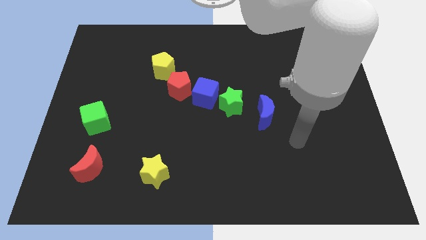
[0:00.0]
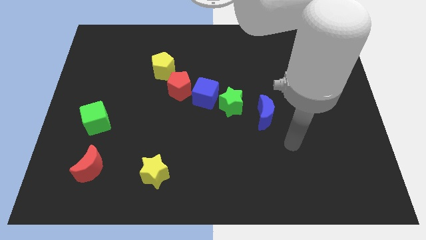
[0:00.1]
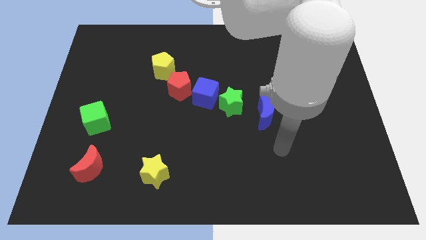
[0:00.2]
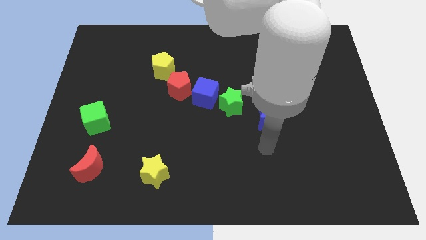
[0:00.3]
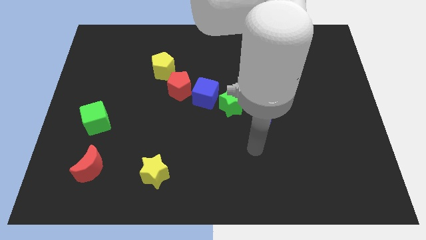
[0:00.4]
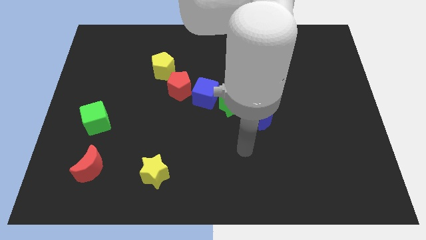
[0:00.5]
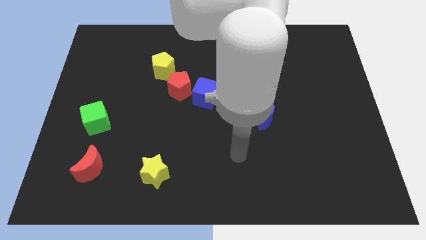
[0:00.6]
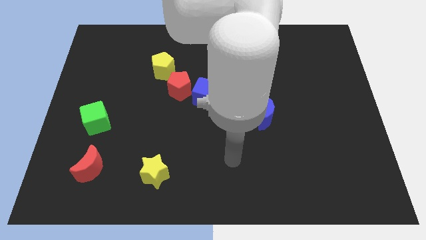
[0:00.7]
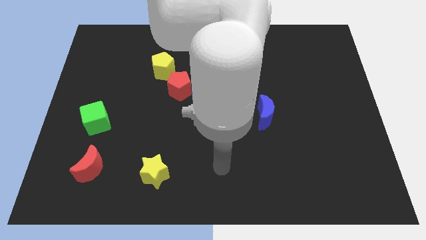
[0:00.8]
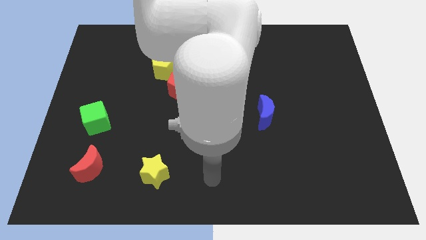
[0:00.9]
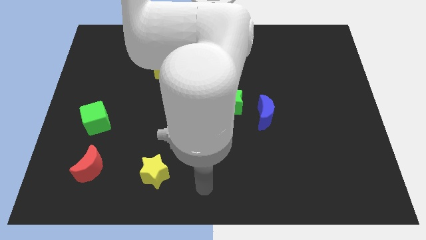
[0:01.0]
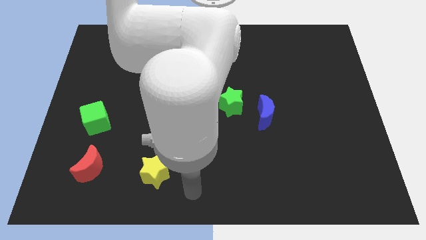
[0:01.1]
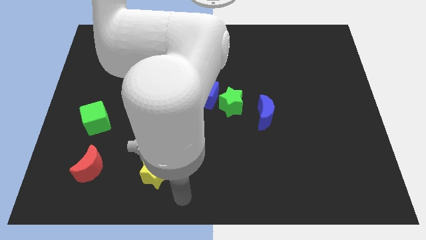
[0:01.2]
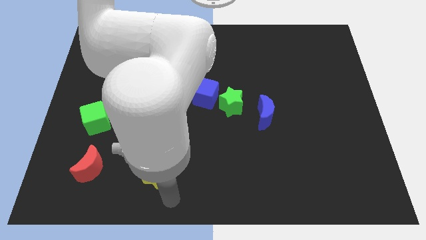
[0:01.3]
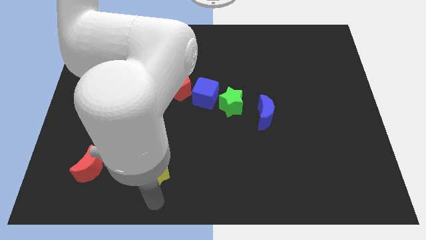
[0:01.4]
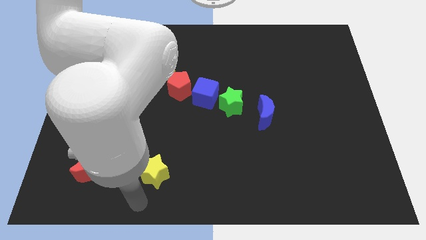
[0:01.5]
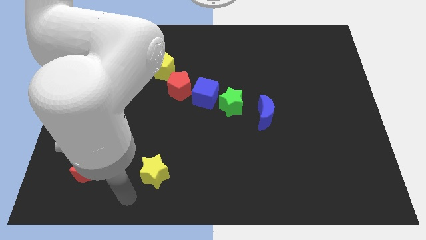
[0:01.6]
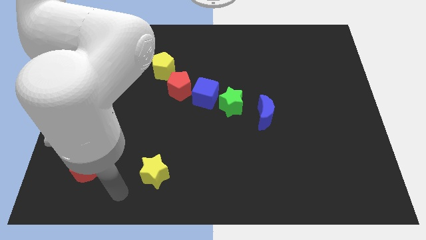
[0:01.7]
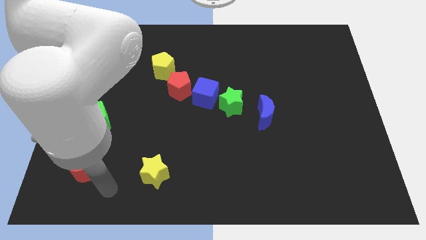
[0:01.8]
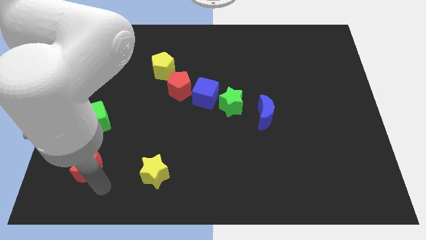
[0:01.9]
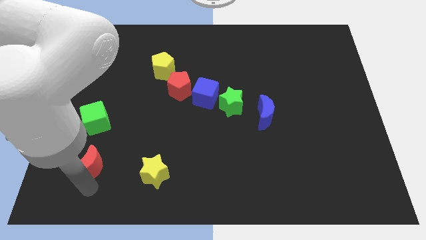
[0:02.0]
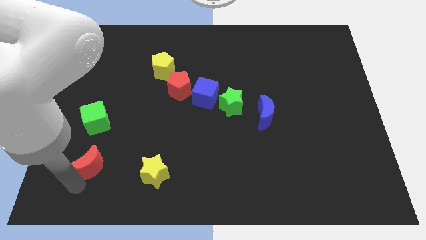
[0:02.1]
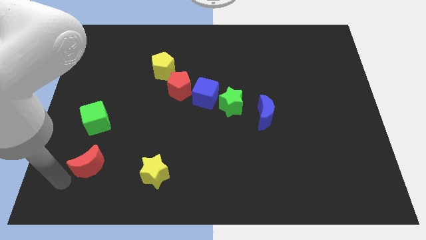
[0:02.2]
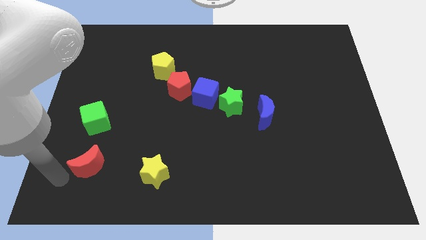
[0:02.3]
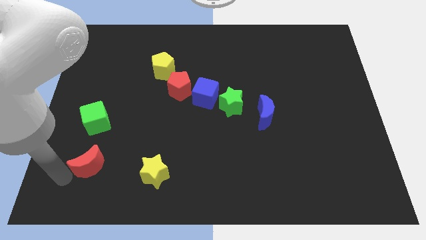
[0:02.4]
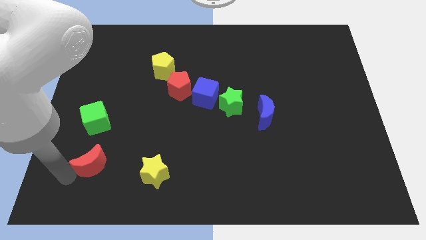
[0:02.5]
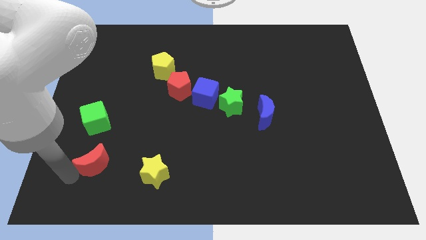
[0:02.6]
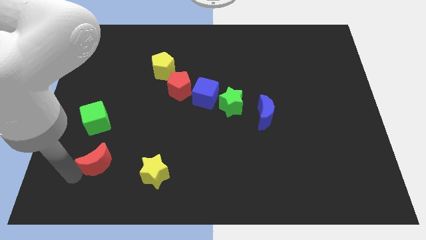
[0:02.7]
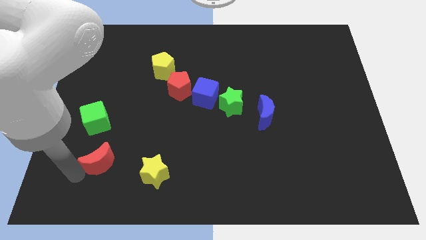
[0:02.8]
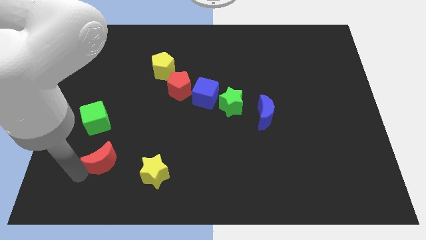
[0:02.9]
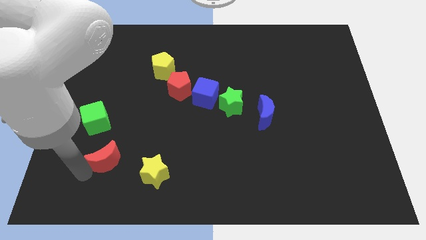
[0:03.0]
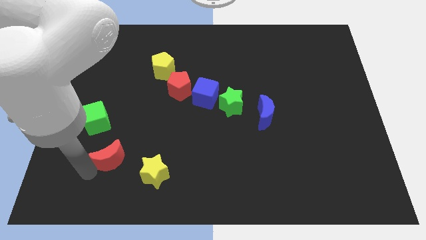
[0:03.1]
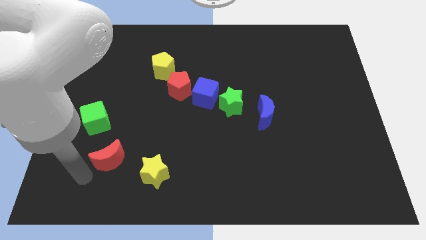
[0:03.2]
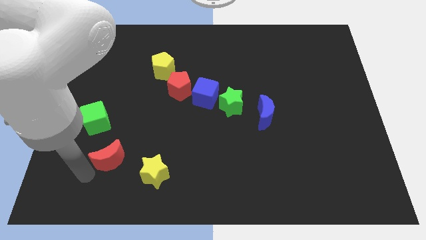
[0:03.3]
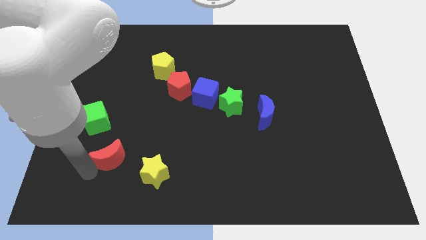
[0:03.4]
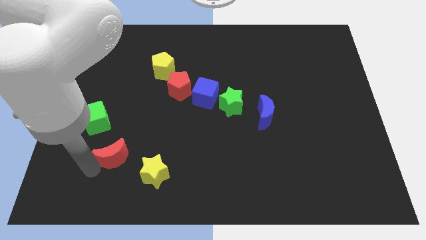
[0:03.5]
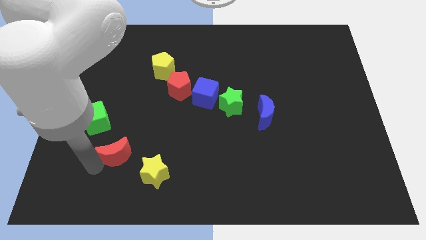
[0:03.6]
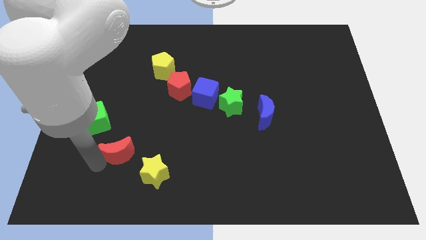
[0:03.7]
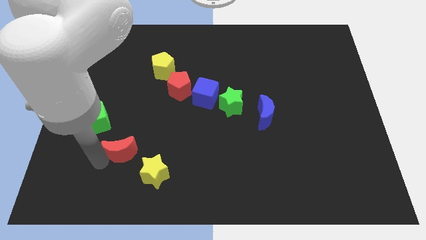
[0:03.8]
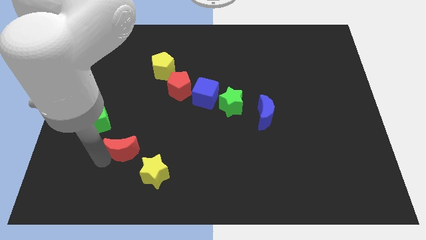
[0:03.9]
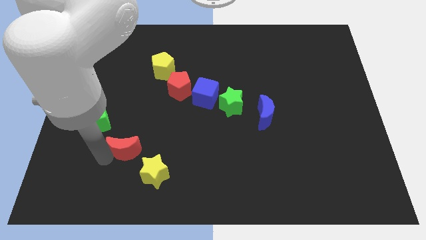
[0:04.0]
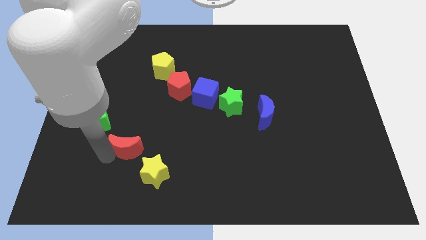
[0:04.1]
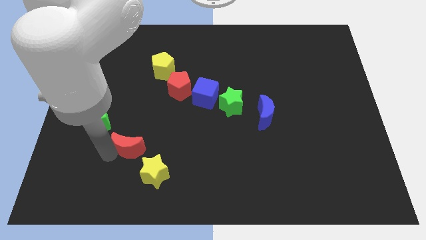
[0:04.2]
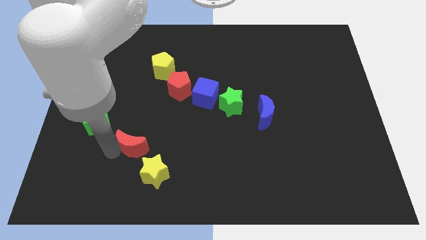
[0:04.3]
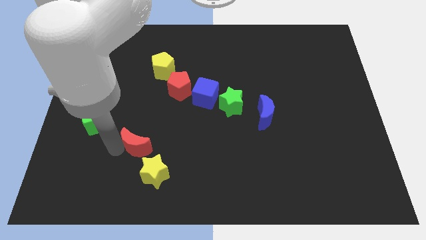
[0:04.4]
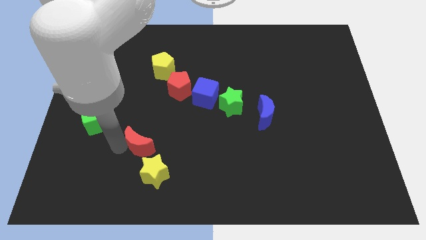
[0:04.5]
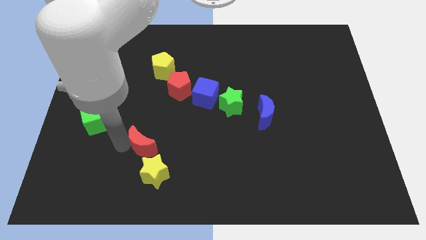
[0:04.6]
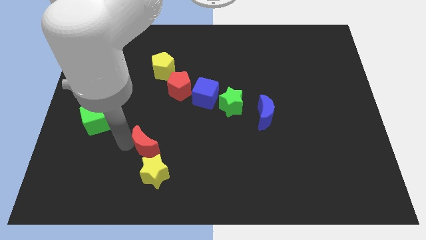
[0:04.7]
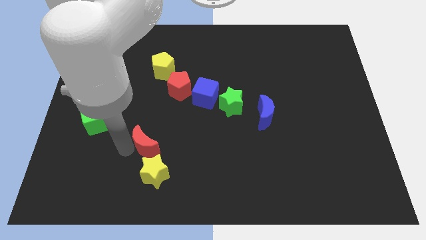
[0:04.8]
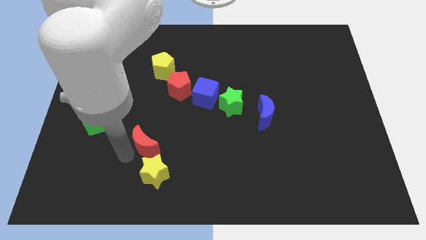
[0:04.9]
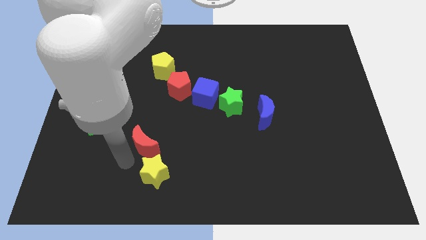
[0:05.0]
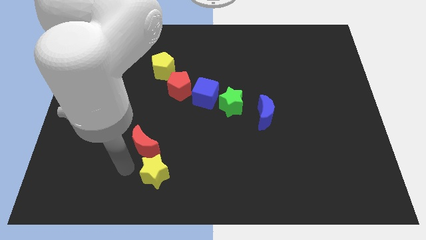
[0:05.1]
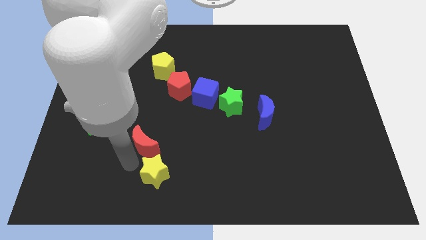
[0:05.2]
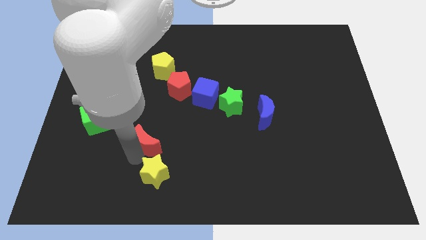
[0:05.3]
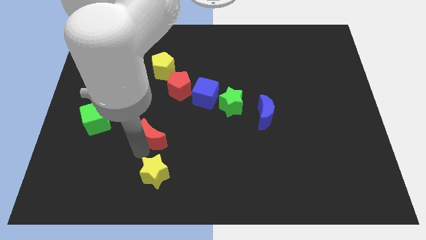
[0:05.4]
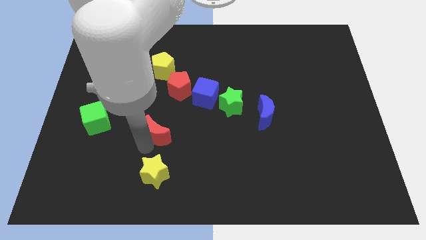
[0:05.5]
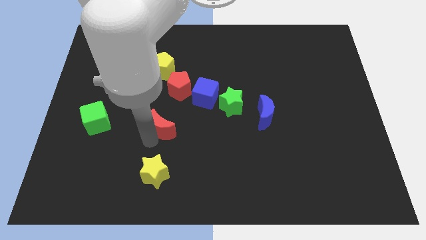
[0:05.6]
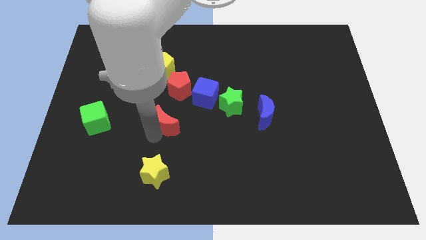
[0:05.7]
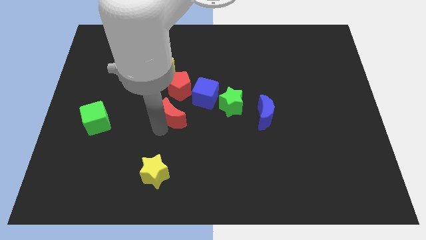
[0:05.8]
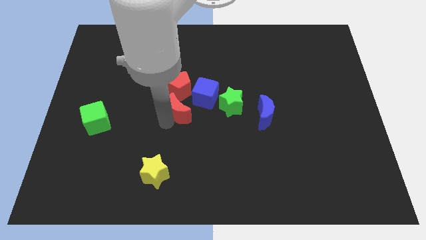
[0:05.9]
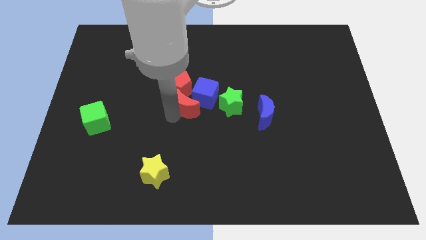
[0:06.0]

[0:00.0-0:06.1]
move the red moon to the blue cube

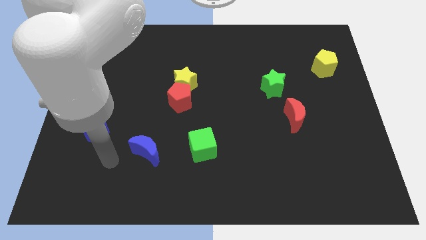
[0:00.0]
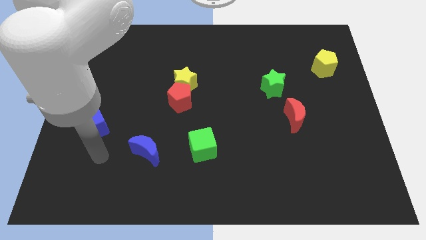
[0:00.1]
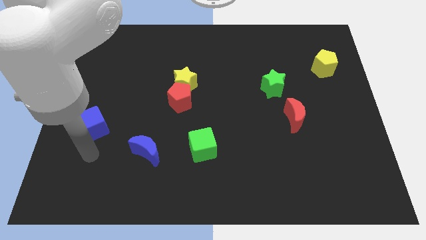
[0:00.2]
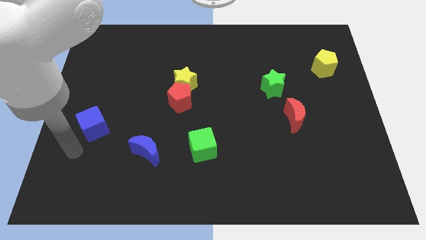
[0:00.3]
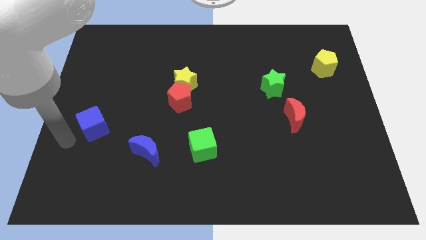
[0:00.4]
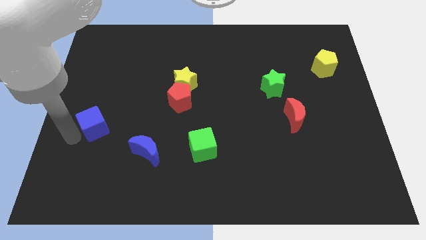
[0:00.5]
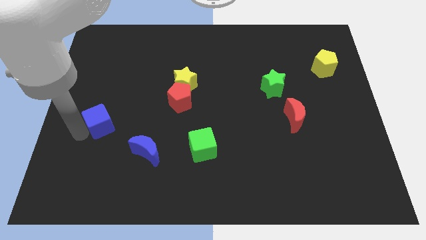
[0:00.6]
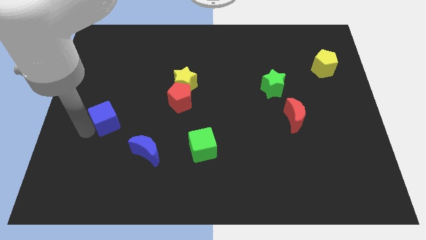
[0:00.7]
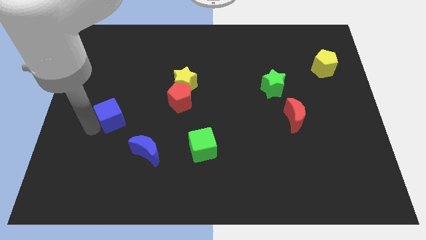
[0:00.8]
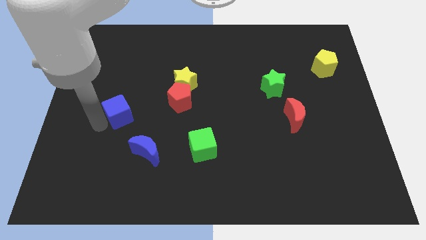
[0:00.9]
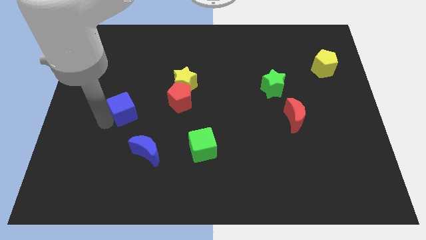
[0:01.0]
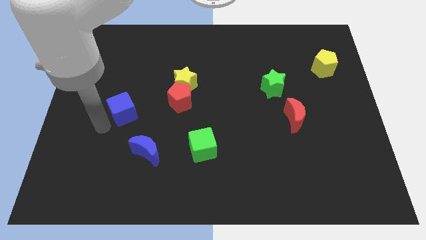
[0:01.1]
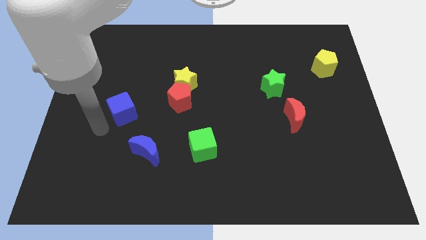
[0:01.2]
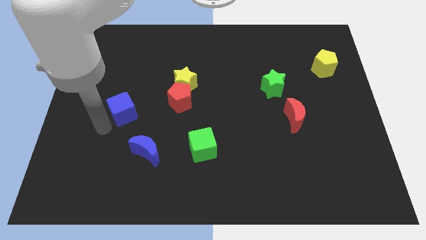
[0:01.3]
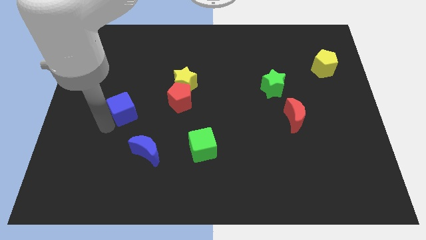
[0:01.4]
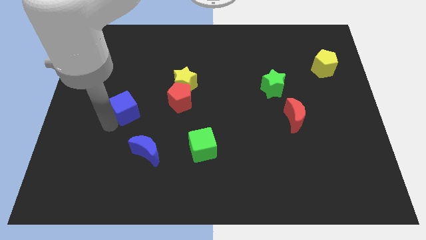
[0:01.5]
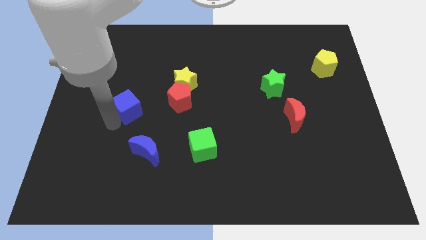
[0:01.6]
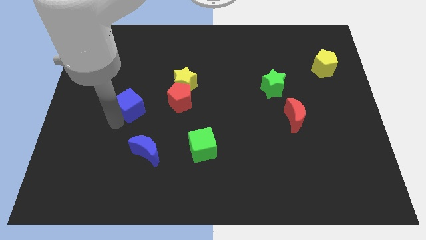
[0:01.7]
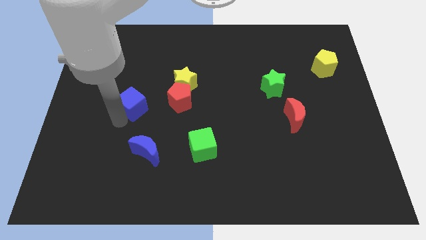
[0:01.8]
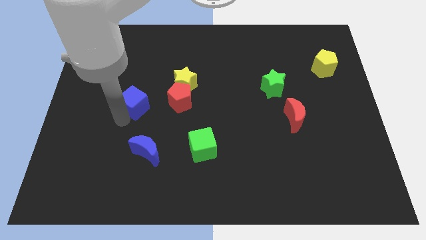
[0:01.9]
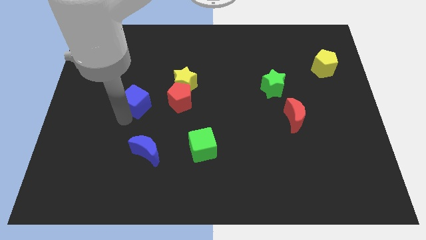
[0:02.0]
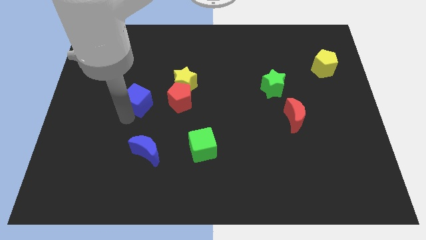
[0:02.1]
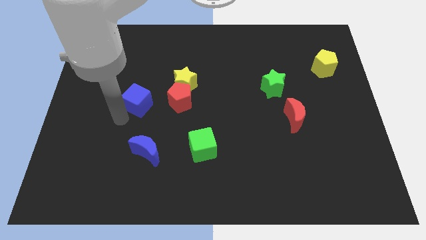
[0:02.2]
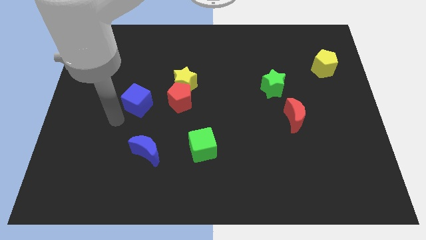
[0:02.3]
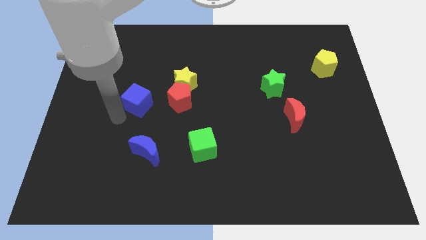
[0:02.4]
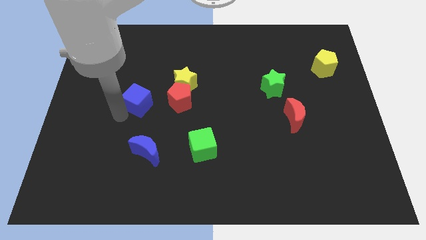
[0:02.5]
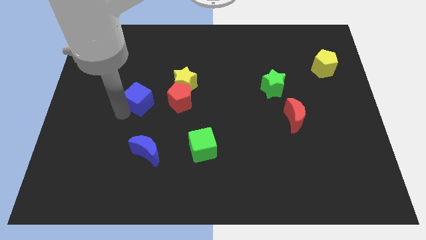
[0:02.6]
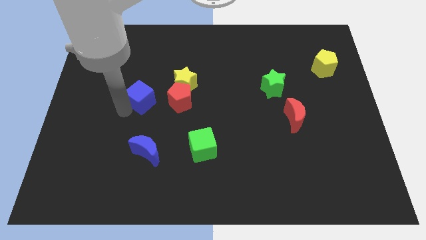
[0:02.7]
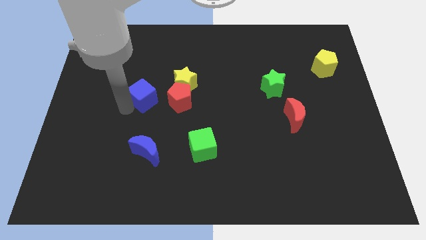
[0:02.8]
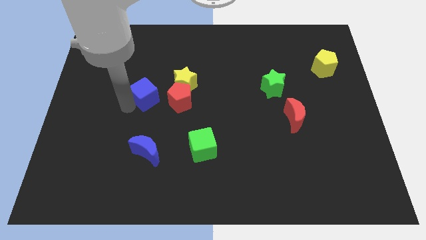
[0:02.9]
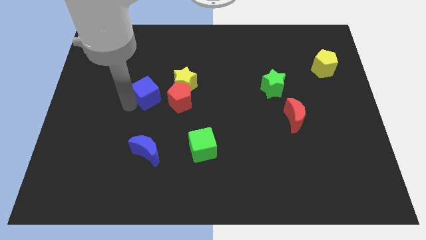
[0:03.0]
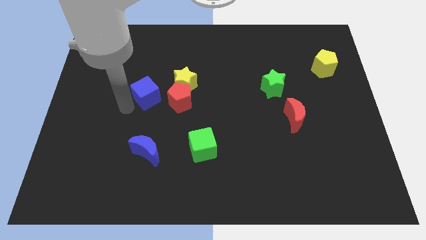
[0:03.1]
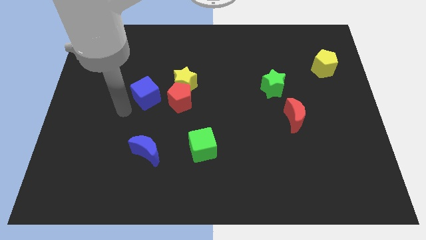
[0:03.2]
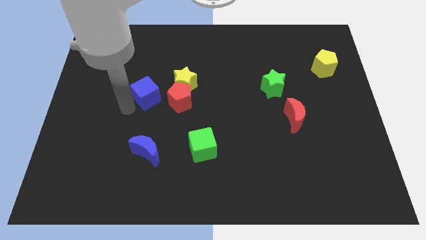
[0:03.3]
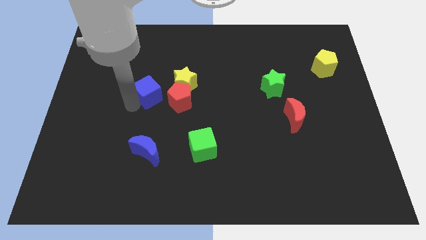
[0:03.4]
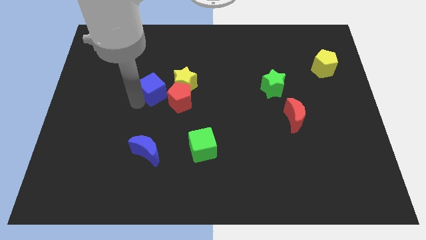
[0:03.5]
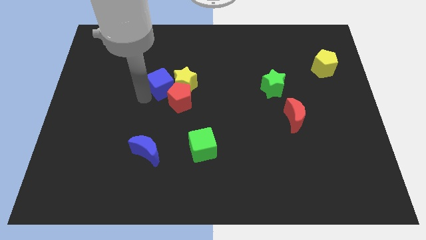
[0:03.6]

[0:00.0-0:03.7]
move the blue cube to the yellow star
